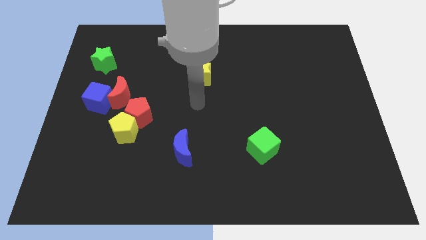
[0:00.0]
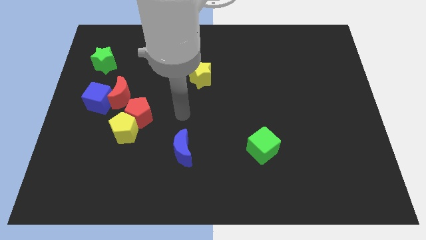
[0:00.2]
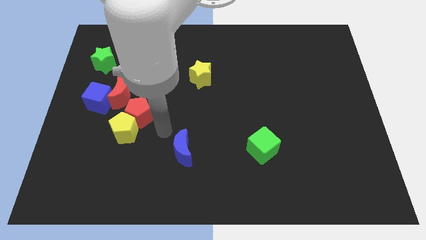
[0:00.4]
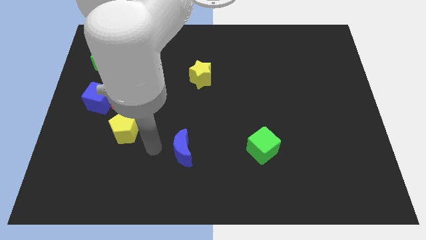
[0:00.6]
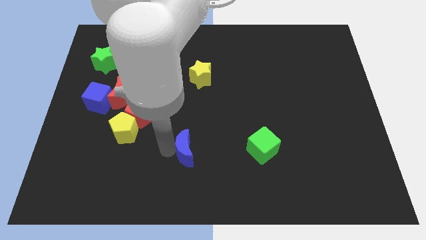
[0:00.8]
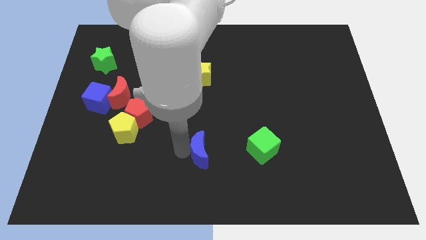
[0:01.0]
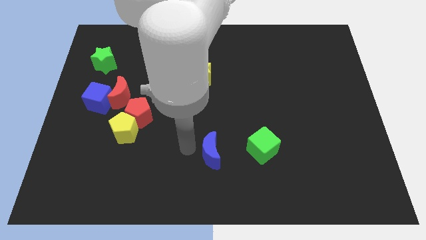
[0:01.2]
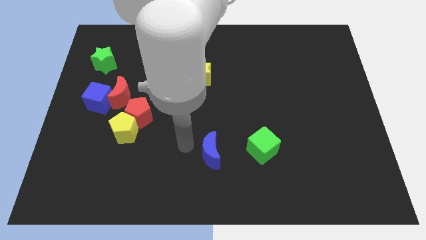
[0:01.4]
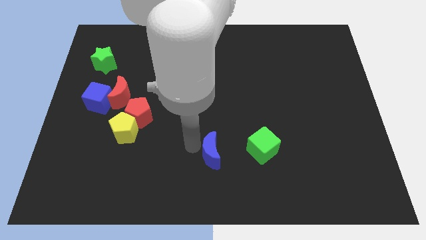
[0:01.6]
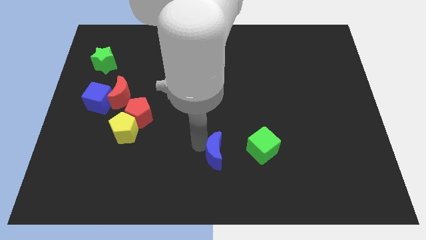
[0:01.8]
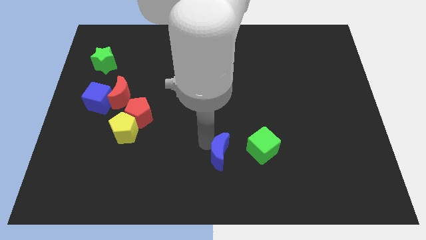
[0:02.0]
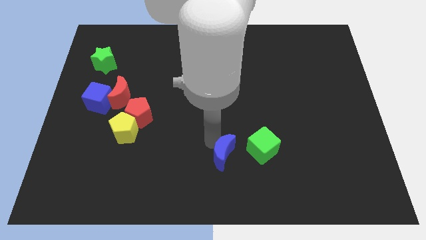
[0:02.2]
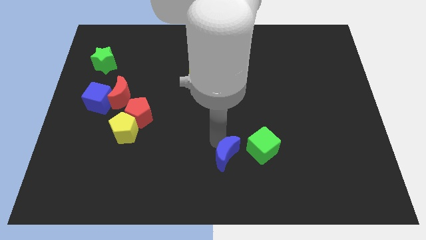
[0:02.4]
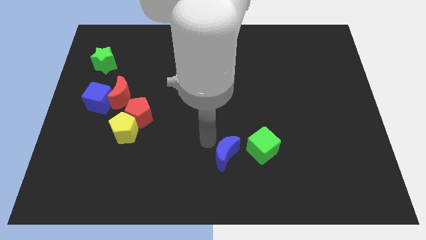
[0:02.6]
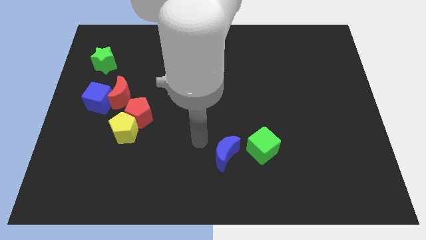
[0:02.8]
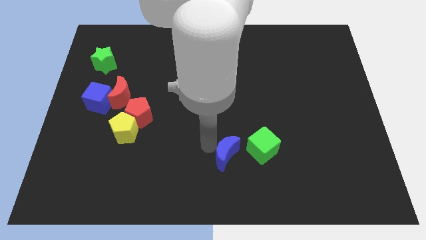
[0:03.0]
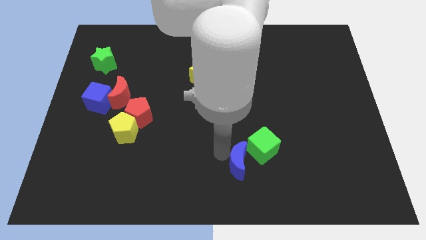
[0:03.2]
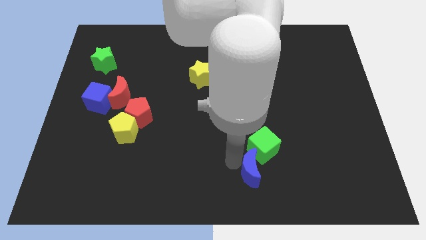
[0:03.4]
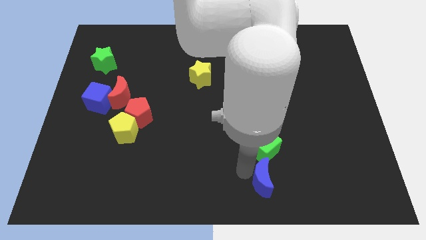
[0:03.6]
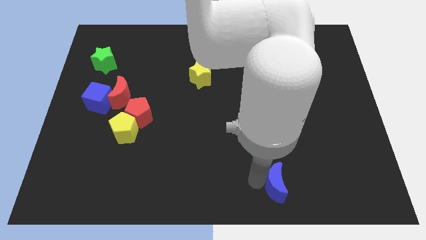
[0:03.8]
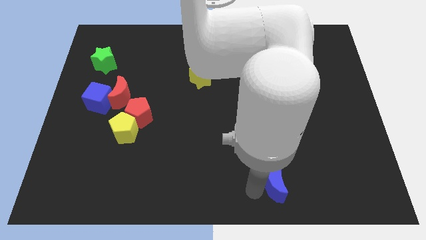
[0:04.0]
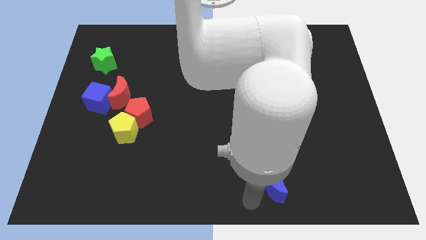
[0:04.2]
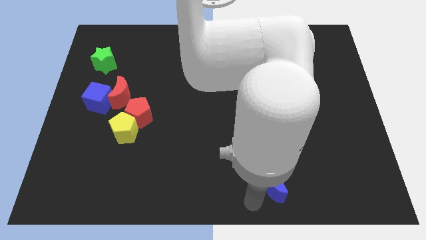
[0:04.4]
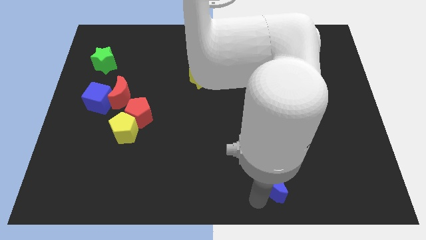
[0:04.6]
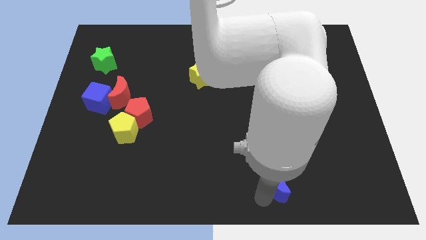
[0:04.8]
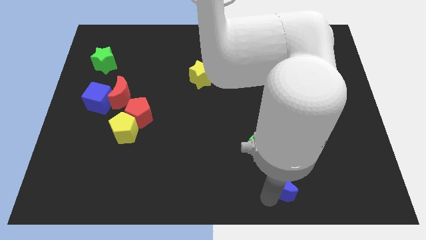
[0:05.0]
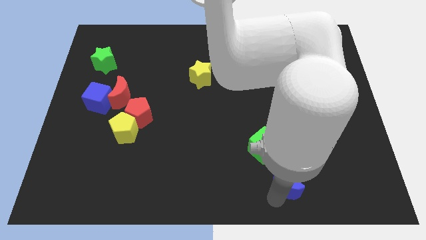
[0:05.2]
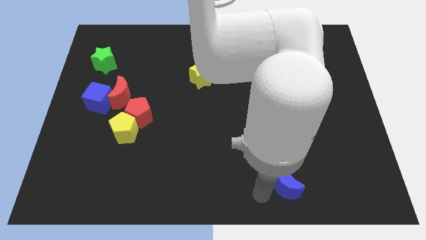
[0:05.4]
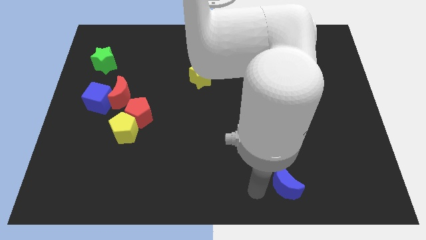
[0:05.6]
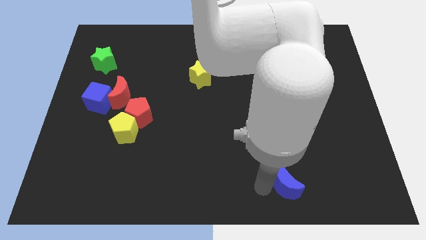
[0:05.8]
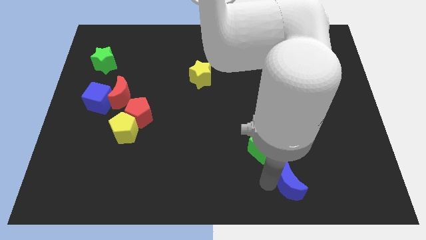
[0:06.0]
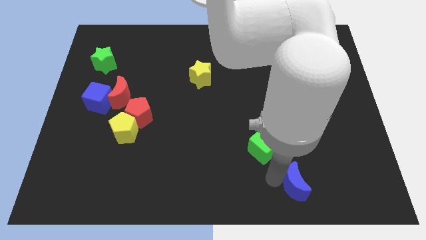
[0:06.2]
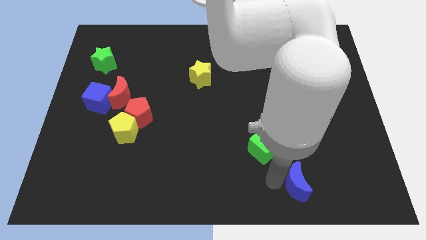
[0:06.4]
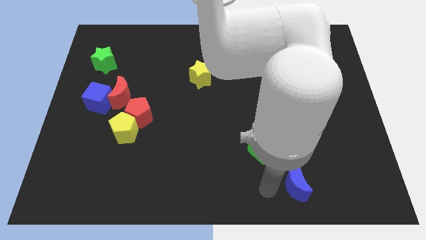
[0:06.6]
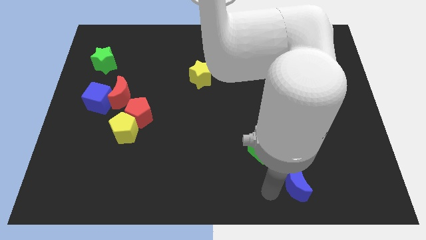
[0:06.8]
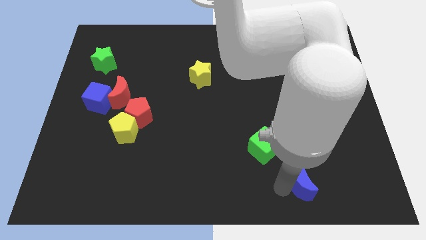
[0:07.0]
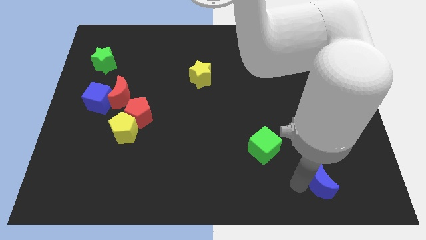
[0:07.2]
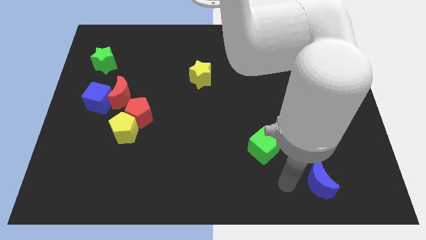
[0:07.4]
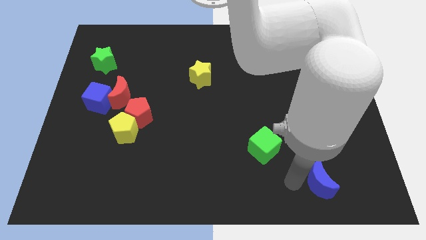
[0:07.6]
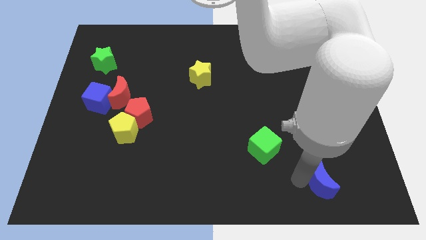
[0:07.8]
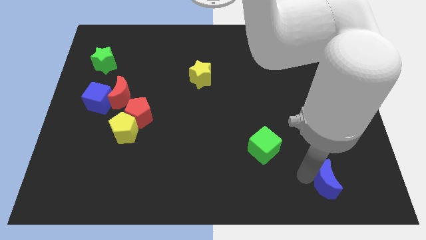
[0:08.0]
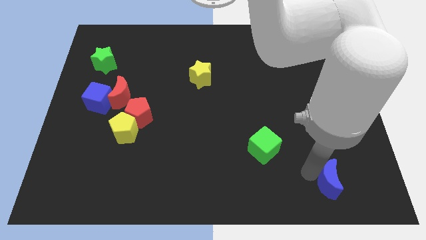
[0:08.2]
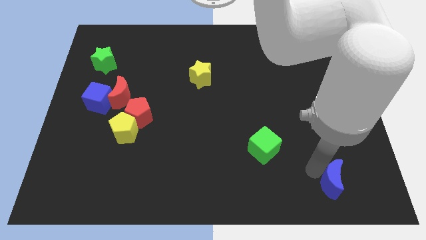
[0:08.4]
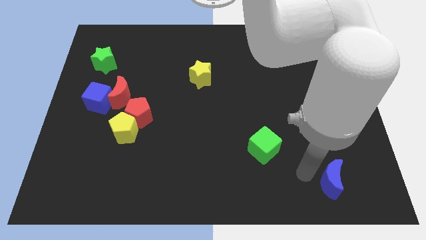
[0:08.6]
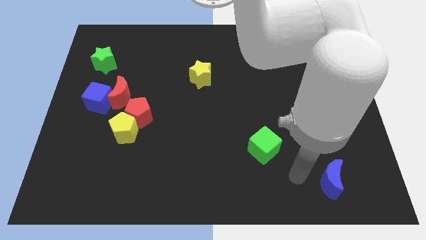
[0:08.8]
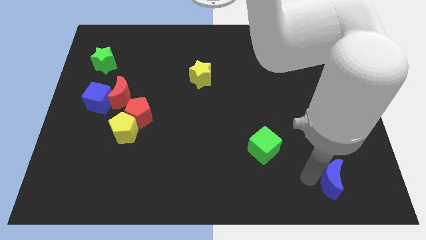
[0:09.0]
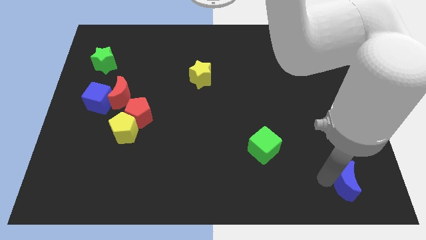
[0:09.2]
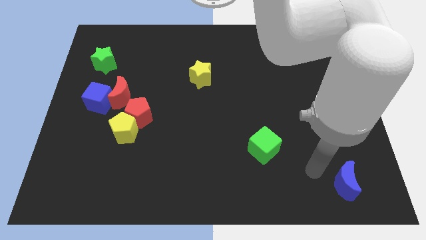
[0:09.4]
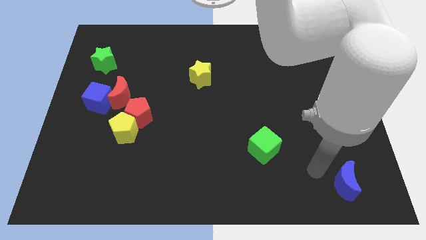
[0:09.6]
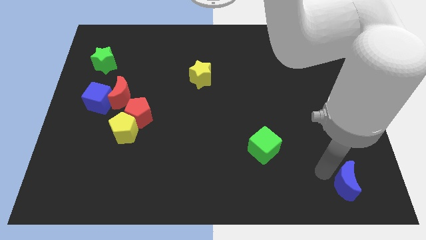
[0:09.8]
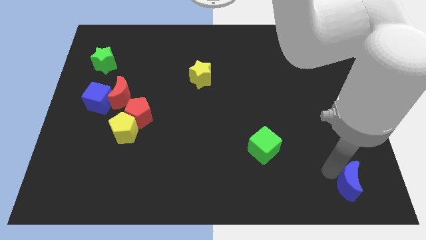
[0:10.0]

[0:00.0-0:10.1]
slide the blue moon to the bottom right
